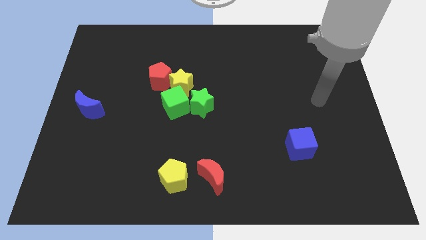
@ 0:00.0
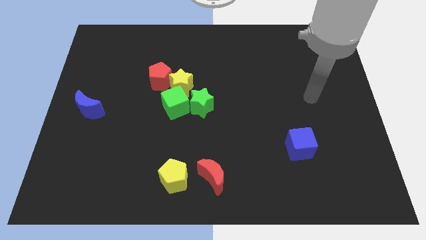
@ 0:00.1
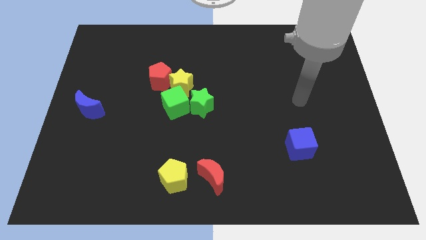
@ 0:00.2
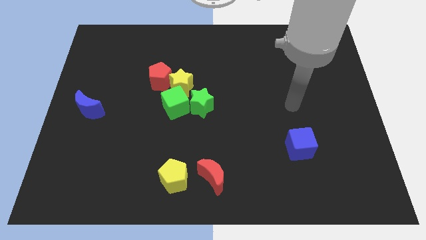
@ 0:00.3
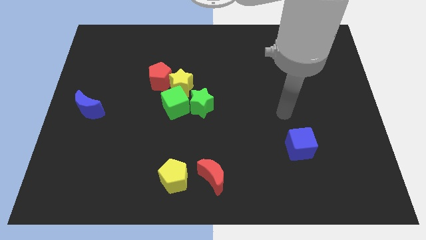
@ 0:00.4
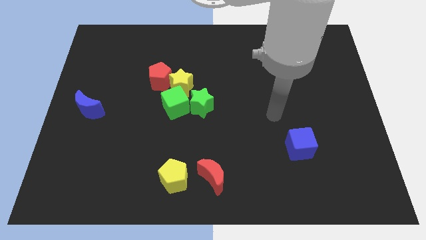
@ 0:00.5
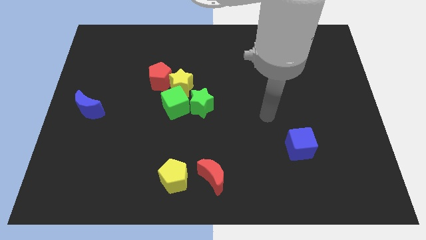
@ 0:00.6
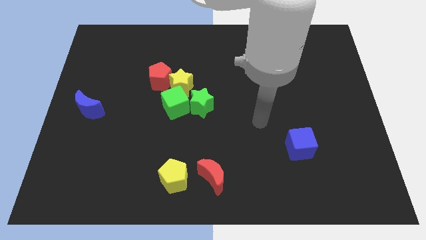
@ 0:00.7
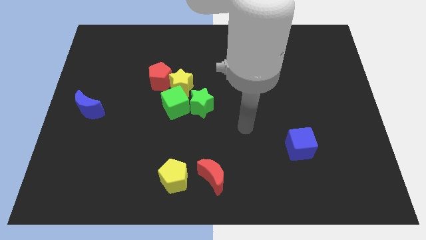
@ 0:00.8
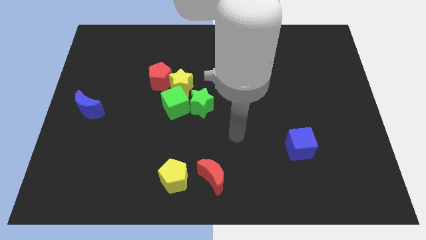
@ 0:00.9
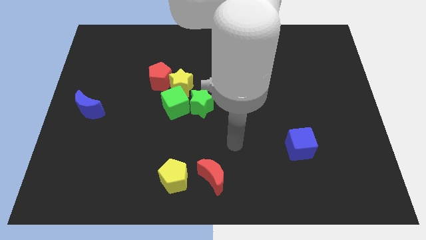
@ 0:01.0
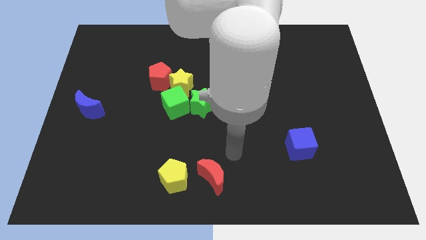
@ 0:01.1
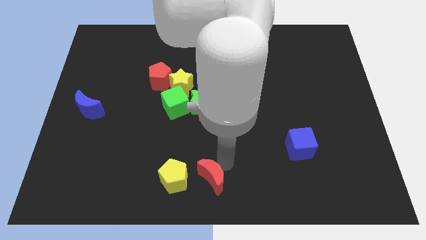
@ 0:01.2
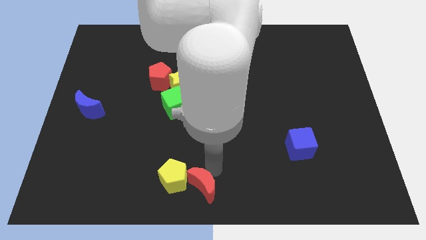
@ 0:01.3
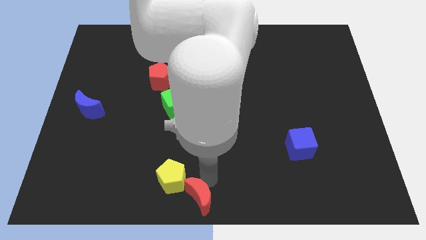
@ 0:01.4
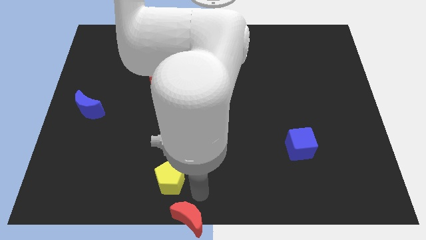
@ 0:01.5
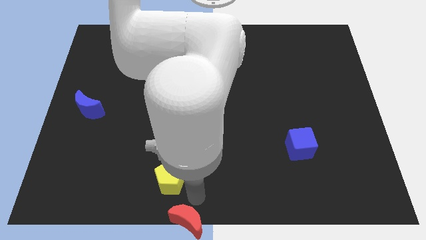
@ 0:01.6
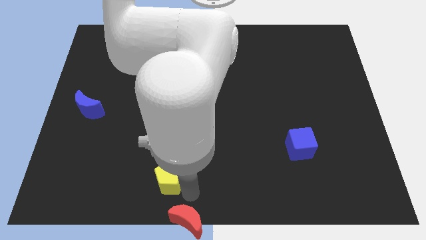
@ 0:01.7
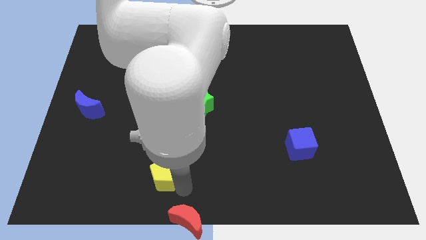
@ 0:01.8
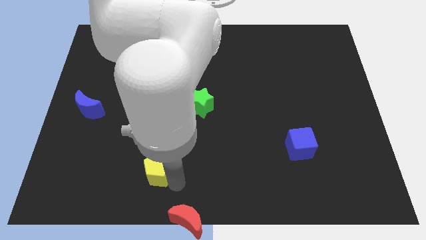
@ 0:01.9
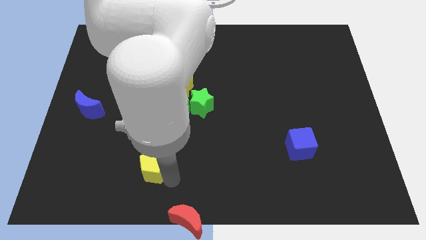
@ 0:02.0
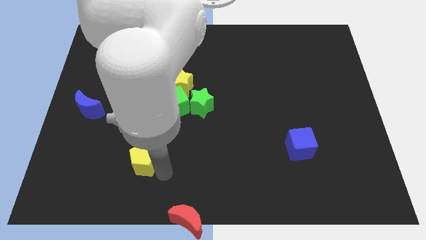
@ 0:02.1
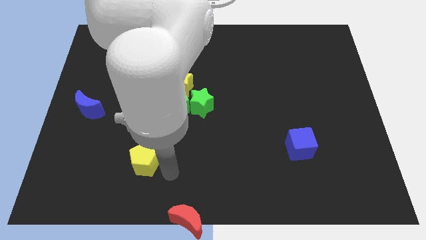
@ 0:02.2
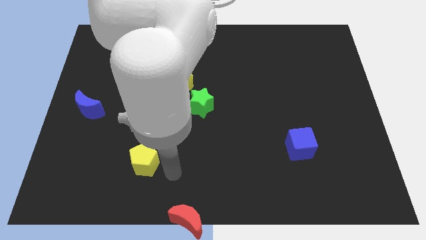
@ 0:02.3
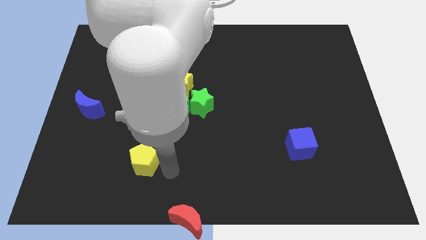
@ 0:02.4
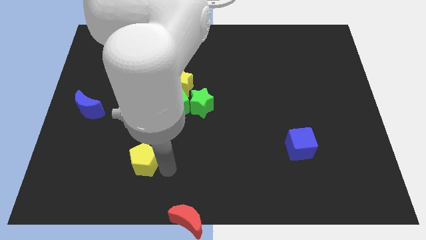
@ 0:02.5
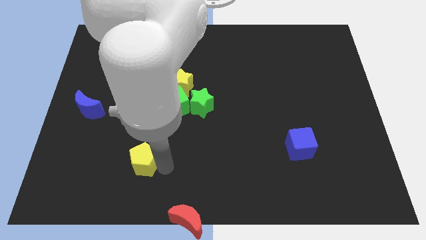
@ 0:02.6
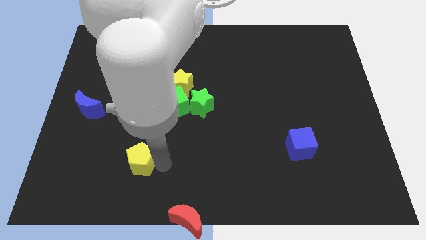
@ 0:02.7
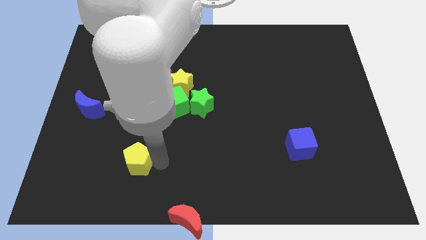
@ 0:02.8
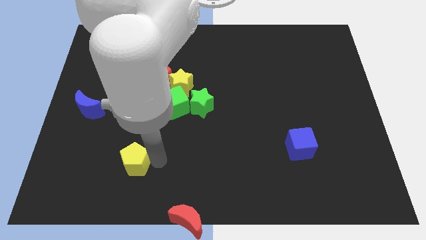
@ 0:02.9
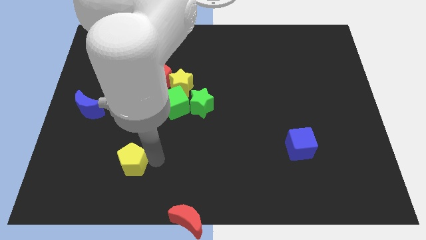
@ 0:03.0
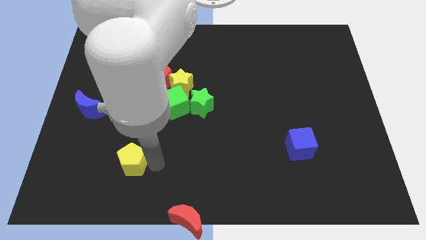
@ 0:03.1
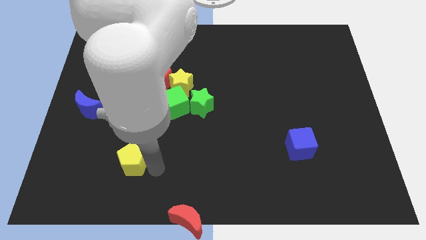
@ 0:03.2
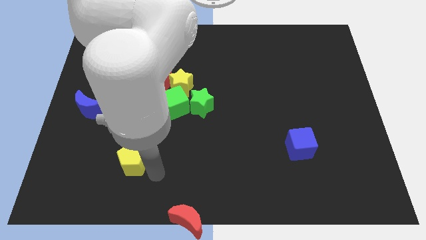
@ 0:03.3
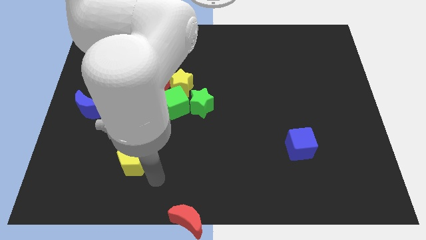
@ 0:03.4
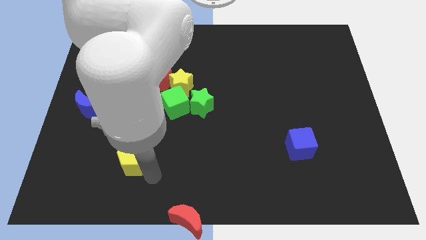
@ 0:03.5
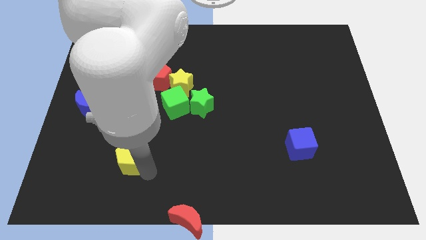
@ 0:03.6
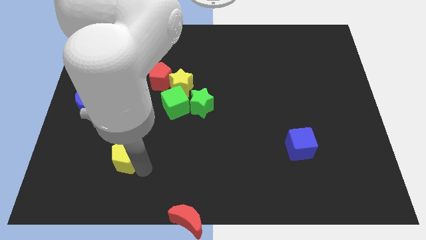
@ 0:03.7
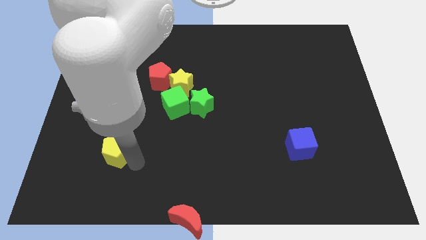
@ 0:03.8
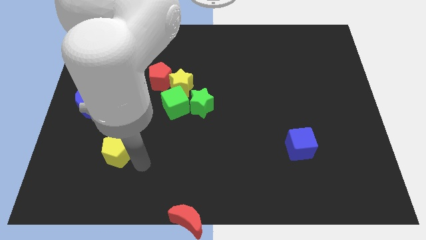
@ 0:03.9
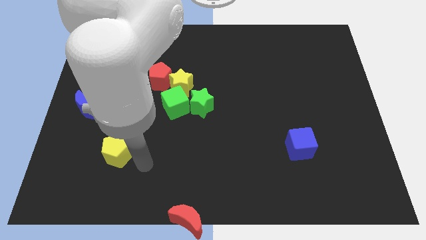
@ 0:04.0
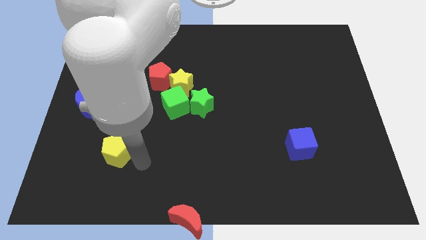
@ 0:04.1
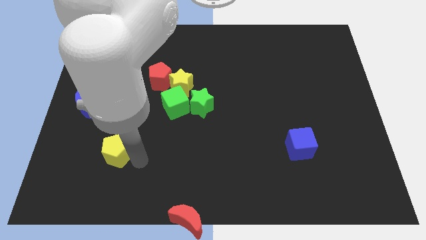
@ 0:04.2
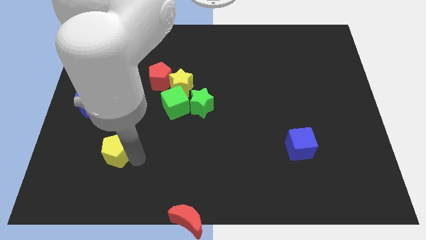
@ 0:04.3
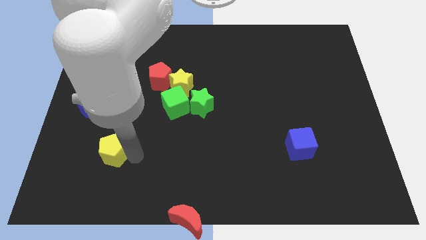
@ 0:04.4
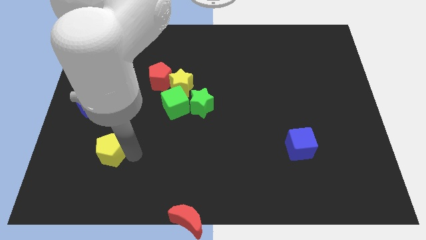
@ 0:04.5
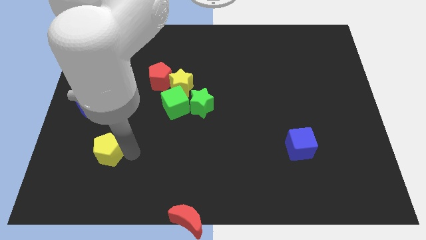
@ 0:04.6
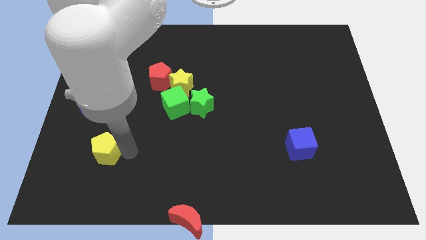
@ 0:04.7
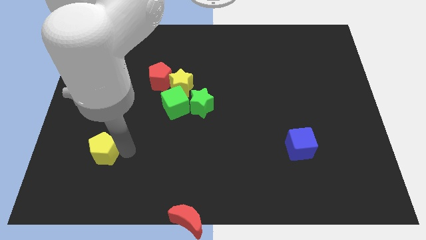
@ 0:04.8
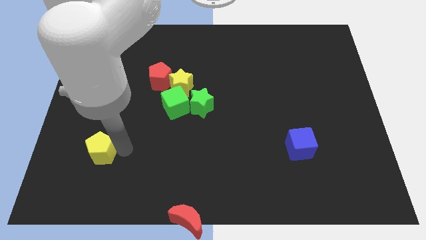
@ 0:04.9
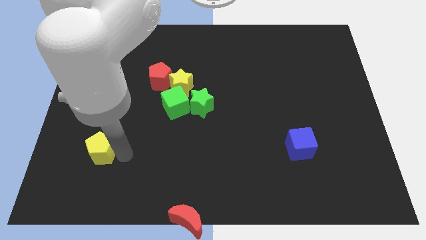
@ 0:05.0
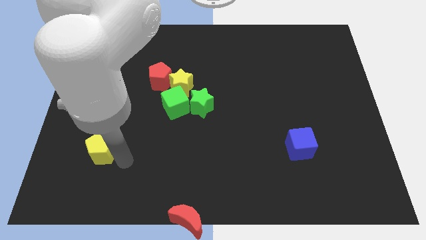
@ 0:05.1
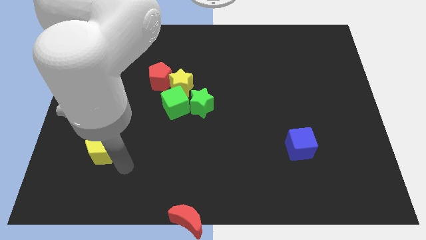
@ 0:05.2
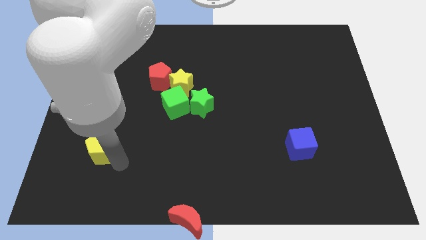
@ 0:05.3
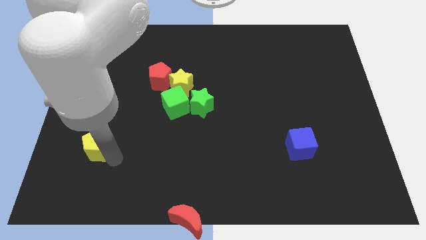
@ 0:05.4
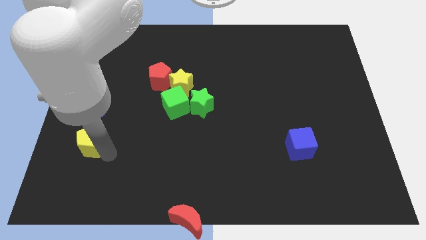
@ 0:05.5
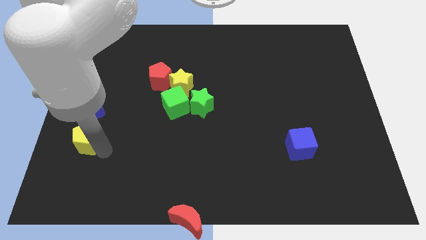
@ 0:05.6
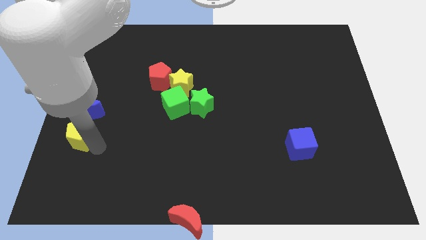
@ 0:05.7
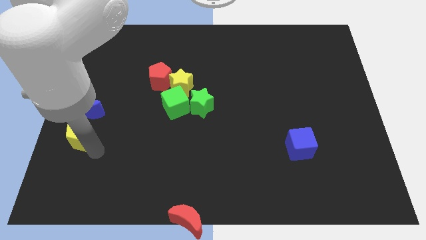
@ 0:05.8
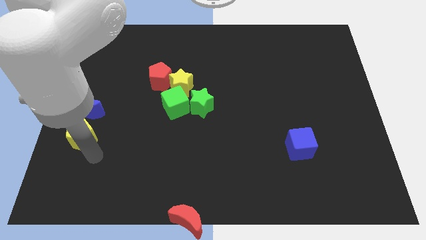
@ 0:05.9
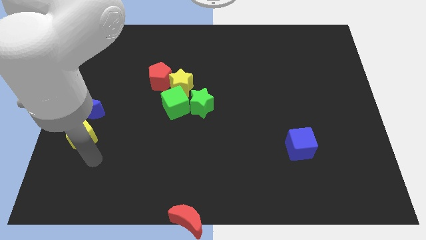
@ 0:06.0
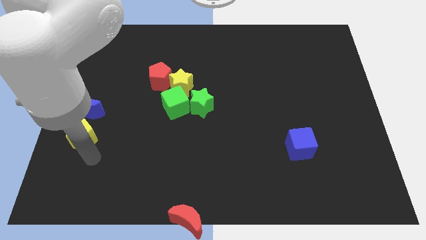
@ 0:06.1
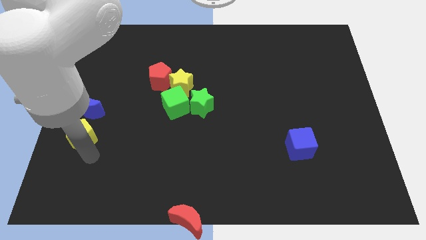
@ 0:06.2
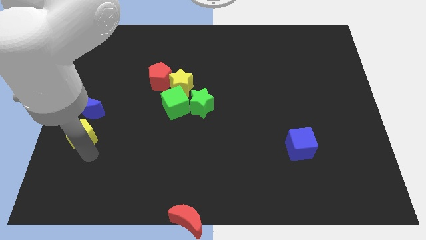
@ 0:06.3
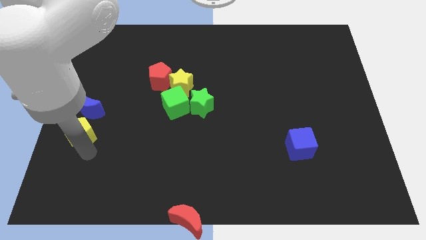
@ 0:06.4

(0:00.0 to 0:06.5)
slide the yellow pentagon to the left side
